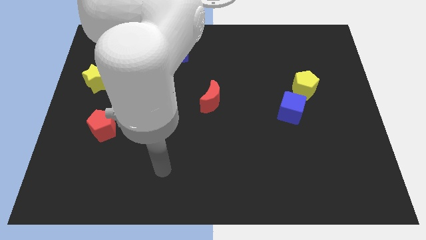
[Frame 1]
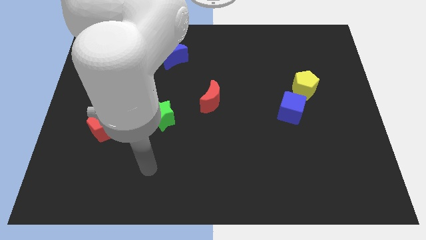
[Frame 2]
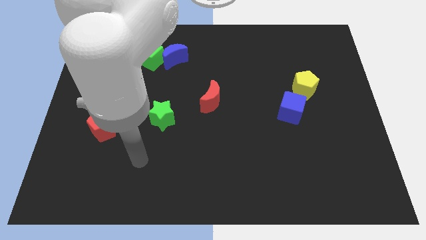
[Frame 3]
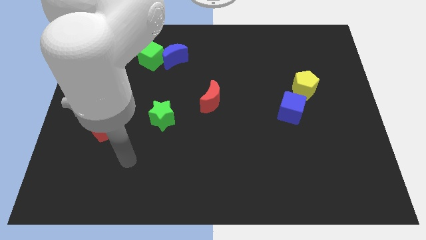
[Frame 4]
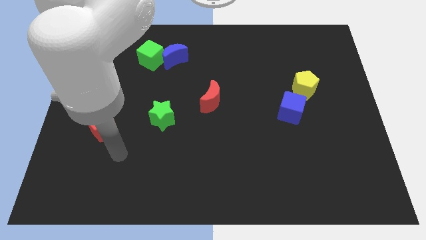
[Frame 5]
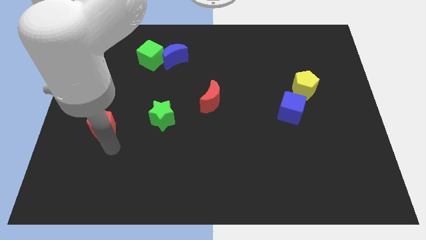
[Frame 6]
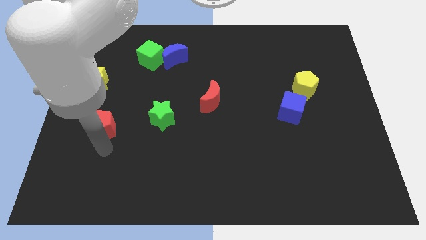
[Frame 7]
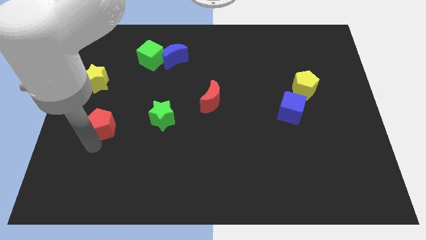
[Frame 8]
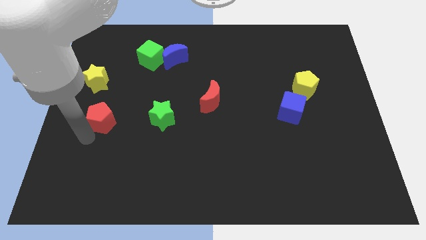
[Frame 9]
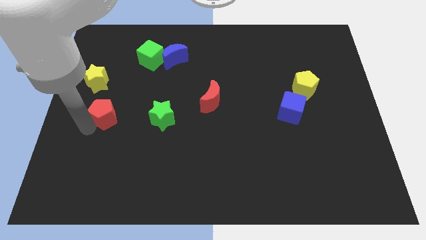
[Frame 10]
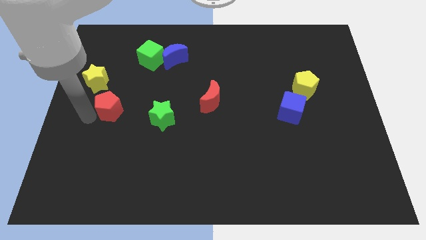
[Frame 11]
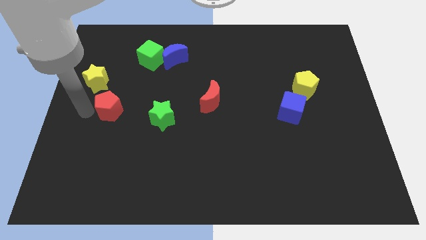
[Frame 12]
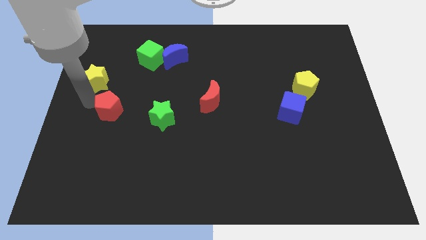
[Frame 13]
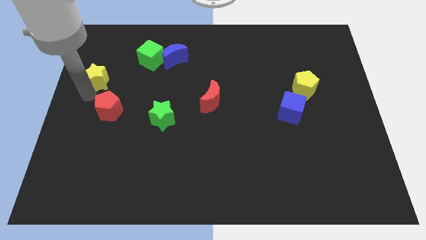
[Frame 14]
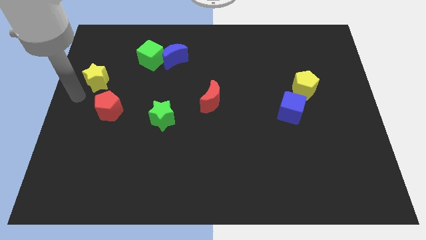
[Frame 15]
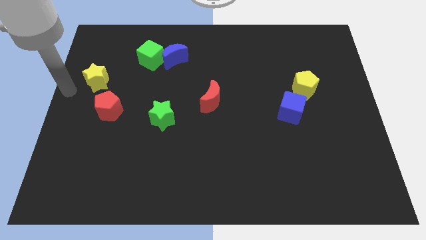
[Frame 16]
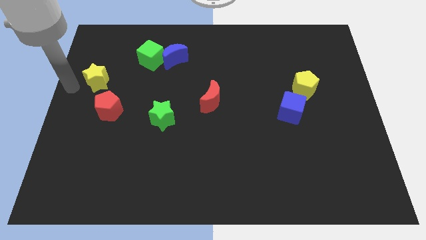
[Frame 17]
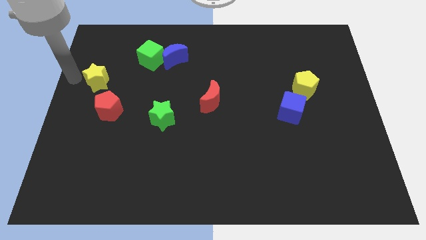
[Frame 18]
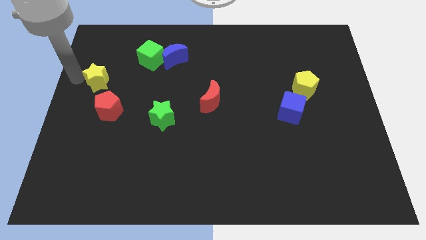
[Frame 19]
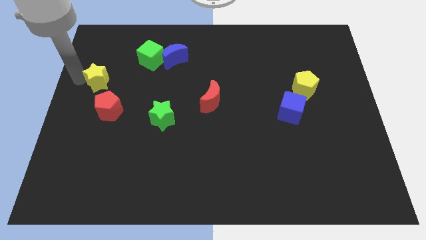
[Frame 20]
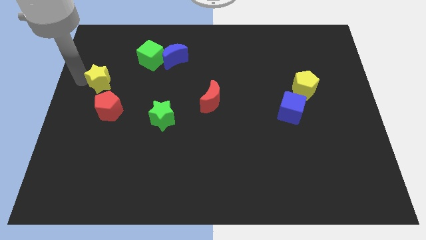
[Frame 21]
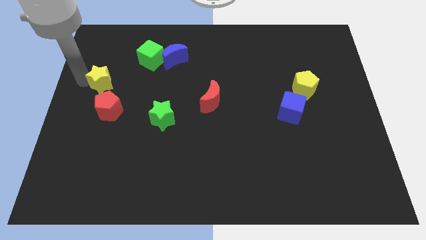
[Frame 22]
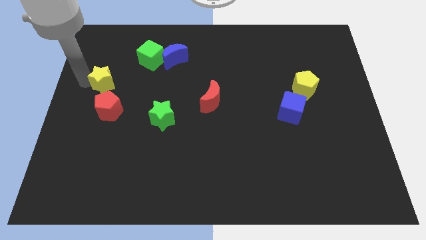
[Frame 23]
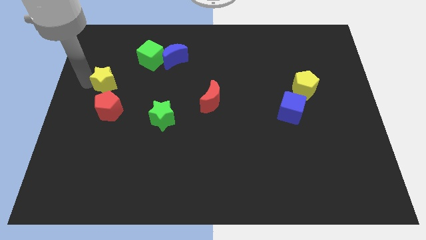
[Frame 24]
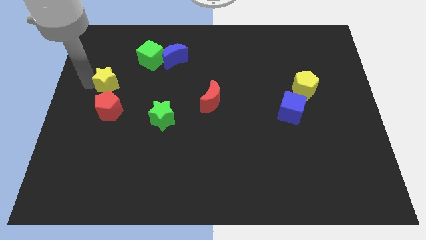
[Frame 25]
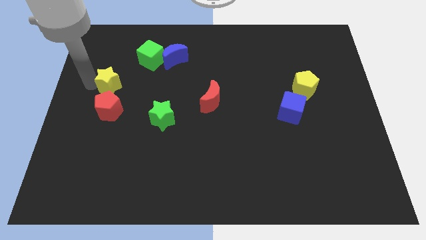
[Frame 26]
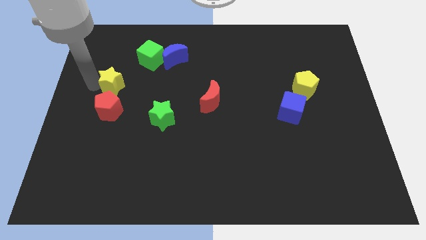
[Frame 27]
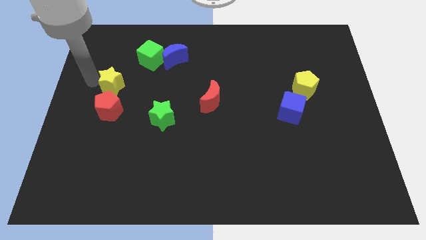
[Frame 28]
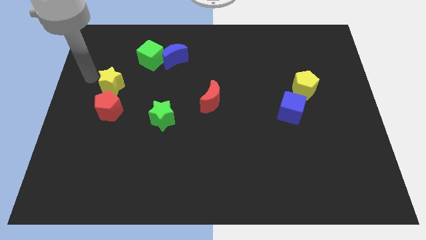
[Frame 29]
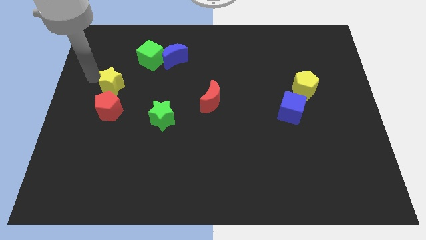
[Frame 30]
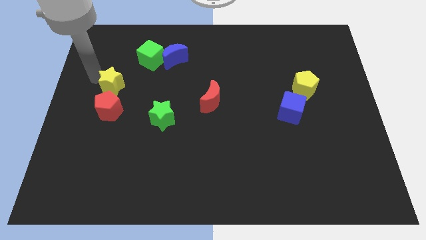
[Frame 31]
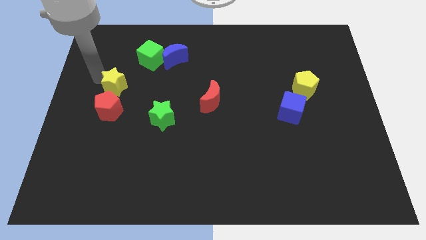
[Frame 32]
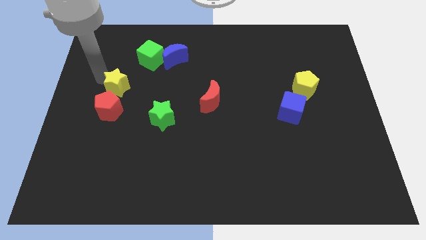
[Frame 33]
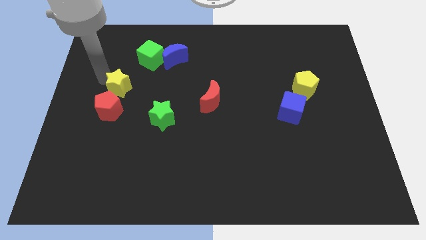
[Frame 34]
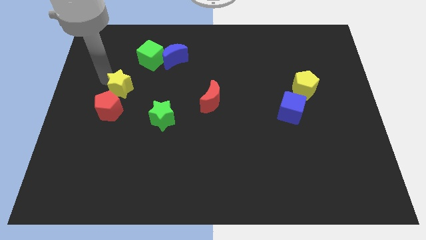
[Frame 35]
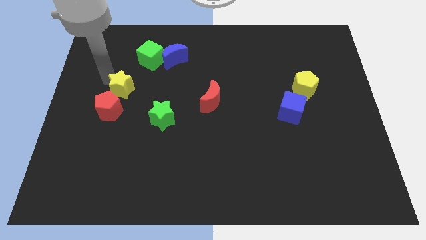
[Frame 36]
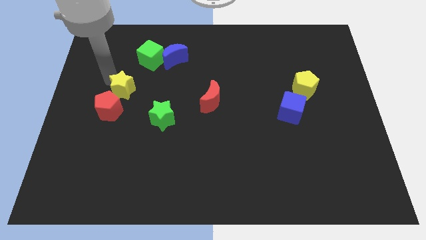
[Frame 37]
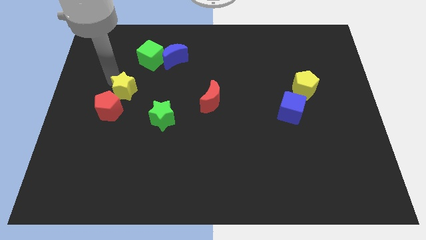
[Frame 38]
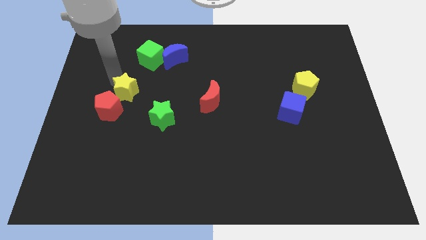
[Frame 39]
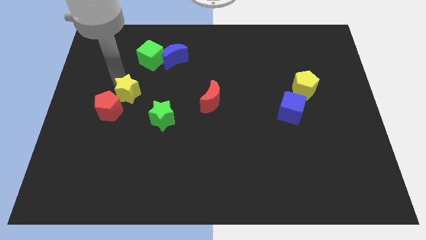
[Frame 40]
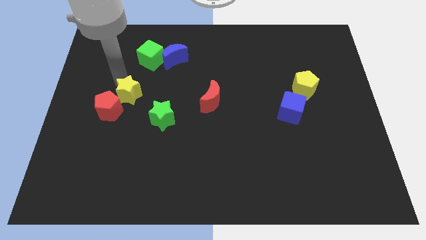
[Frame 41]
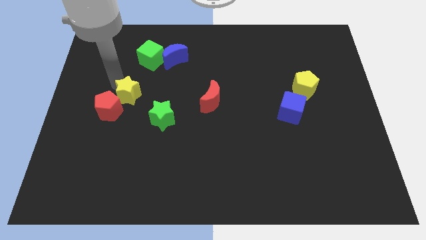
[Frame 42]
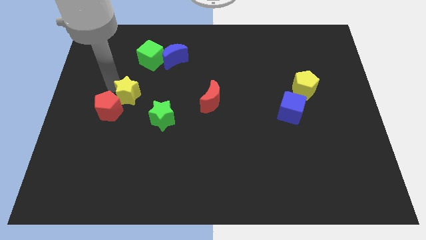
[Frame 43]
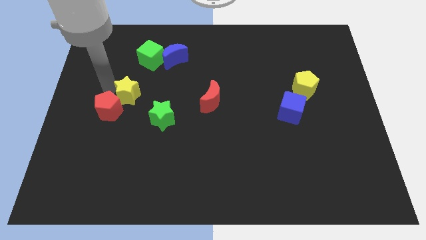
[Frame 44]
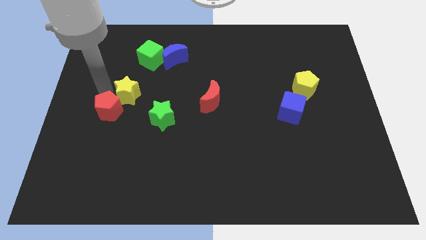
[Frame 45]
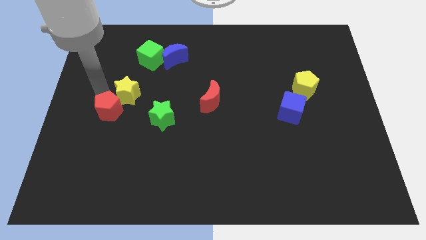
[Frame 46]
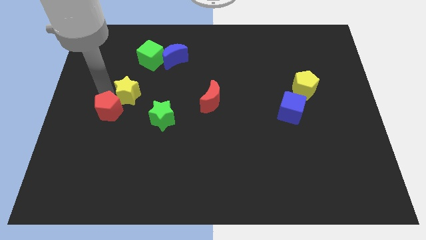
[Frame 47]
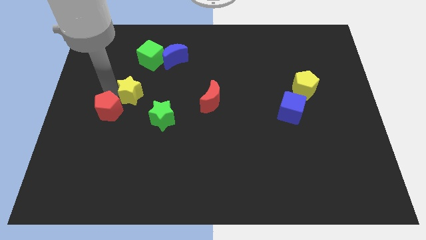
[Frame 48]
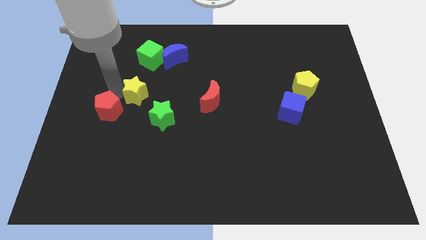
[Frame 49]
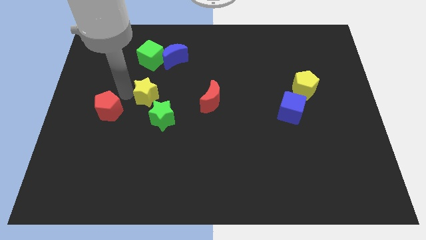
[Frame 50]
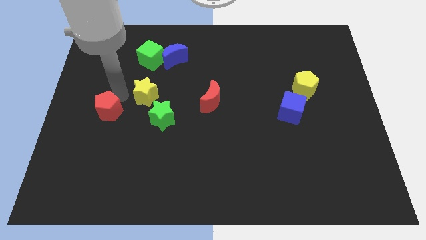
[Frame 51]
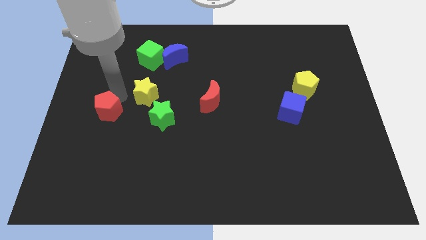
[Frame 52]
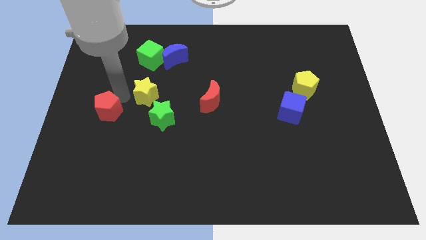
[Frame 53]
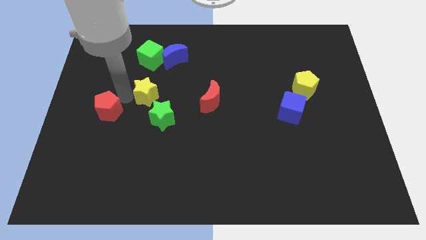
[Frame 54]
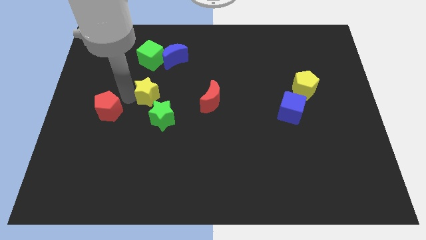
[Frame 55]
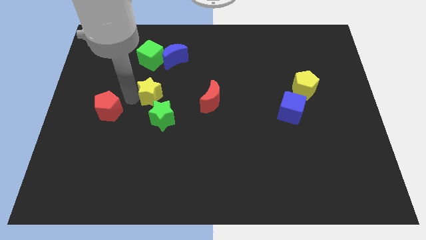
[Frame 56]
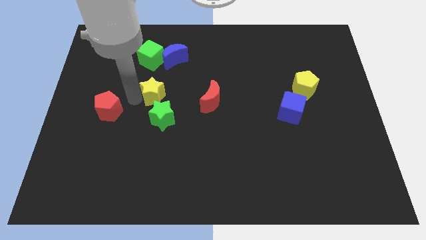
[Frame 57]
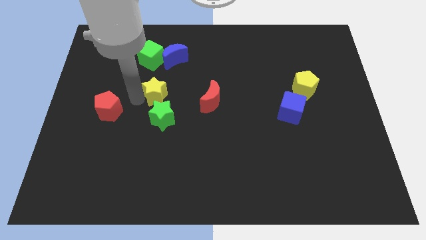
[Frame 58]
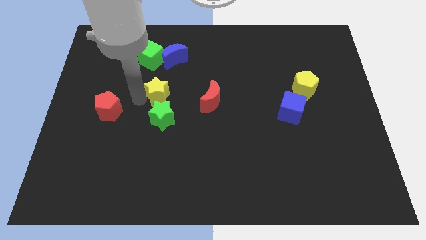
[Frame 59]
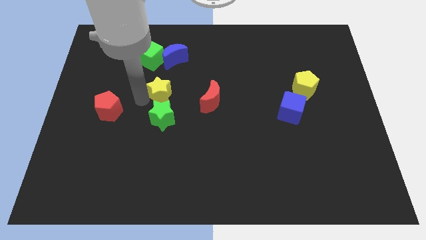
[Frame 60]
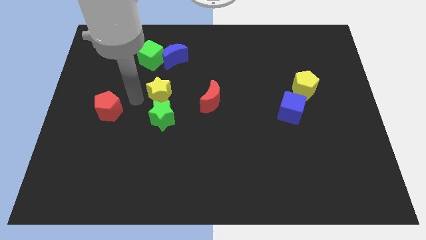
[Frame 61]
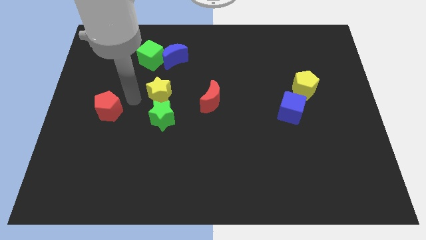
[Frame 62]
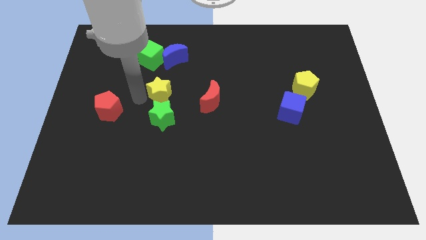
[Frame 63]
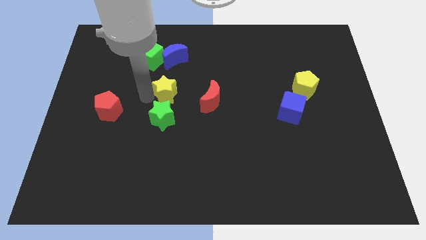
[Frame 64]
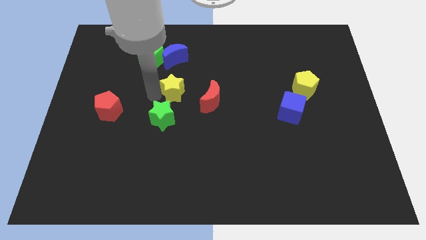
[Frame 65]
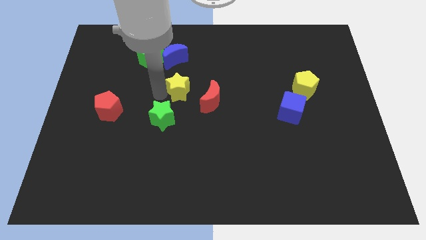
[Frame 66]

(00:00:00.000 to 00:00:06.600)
slide the yellow star right

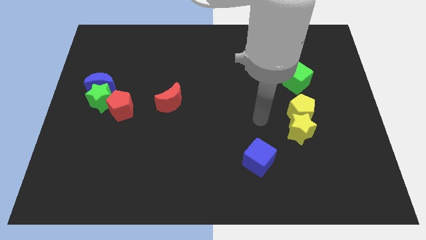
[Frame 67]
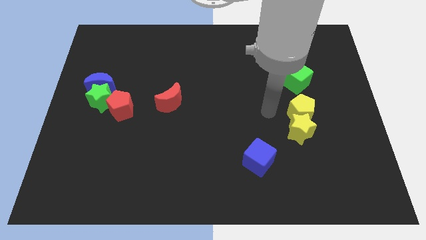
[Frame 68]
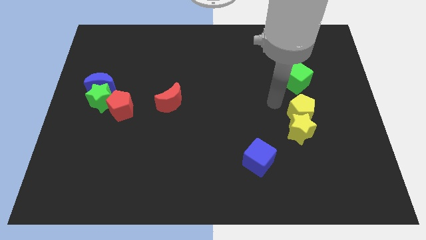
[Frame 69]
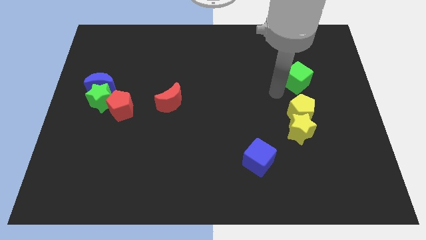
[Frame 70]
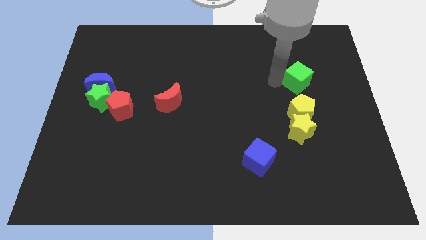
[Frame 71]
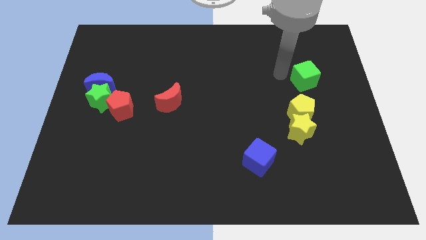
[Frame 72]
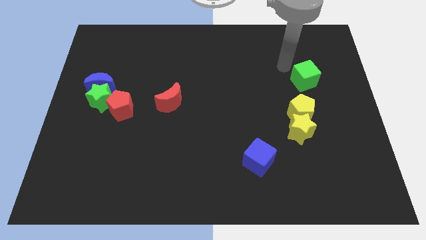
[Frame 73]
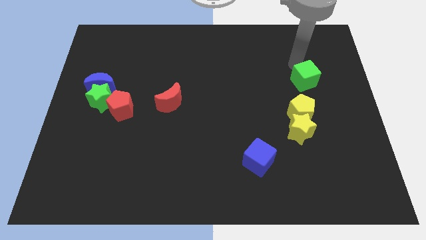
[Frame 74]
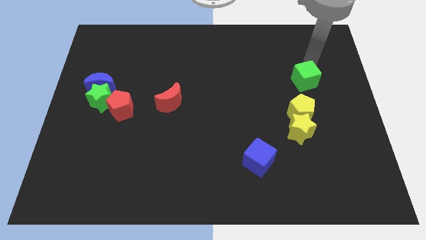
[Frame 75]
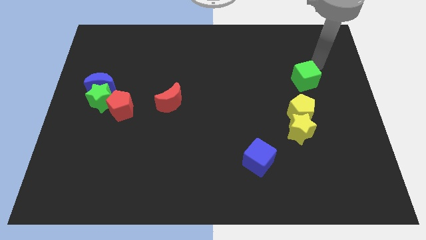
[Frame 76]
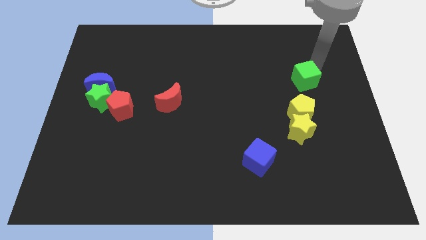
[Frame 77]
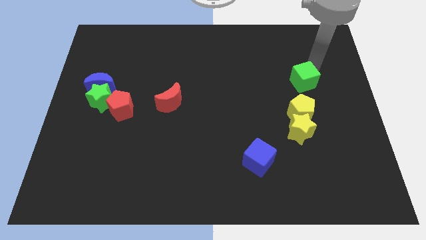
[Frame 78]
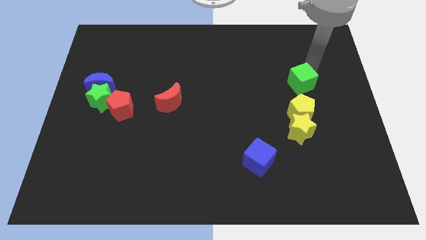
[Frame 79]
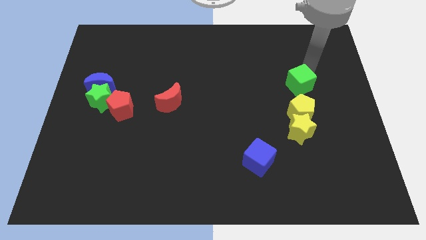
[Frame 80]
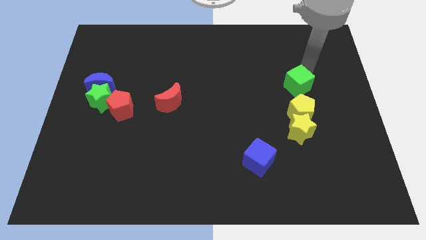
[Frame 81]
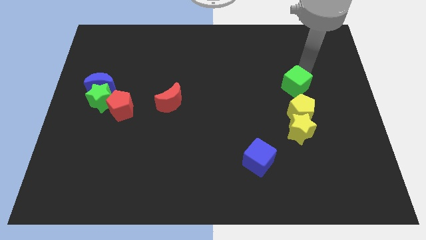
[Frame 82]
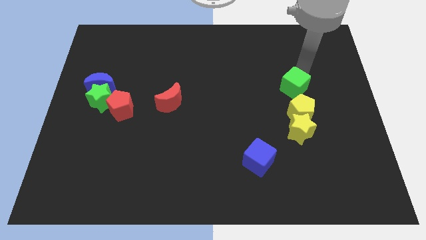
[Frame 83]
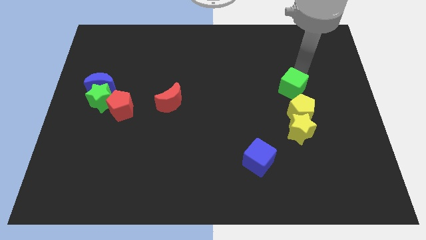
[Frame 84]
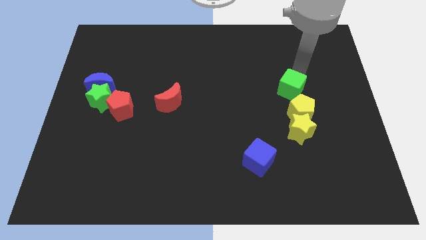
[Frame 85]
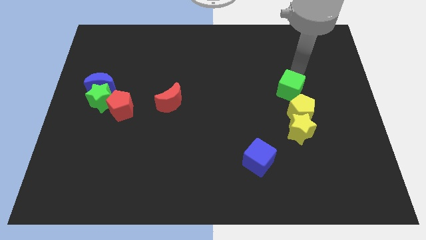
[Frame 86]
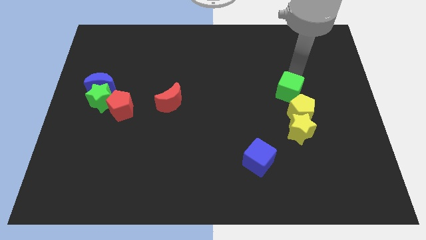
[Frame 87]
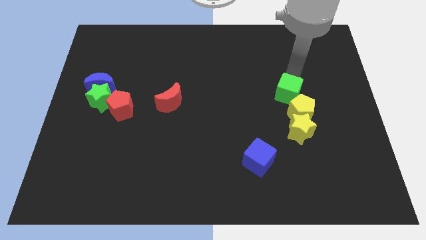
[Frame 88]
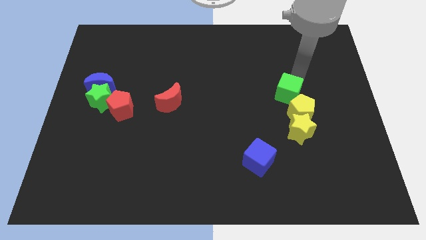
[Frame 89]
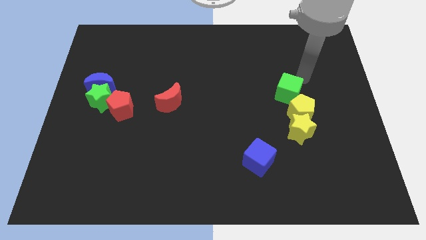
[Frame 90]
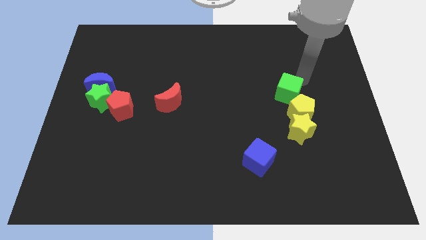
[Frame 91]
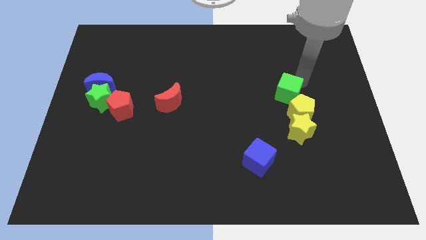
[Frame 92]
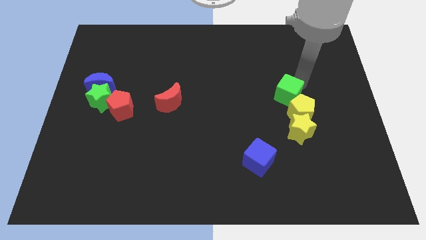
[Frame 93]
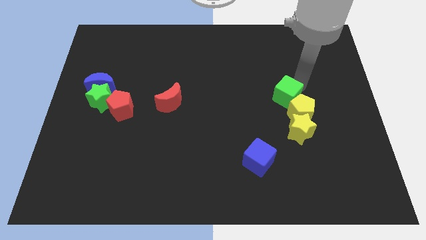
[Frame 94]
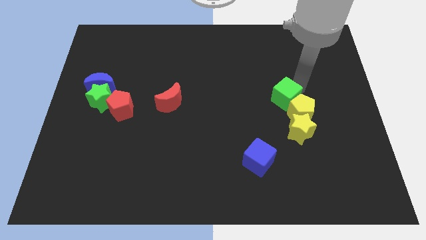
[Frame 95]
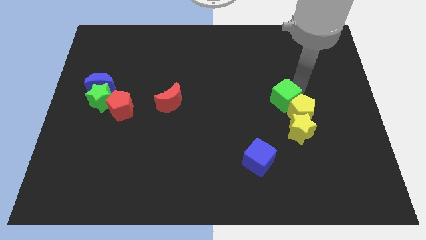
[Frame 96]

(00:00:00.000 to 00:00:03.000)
push the green cube downwards and then to the left a bit
